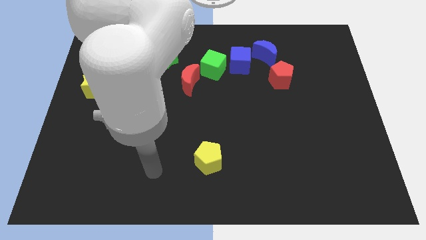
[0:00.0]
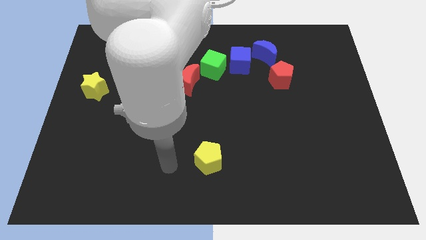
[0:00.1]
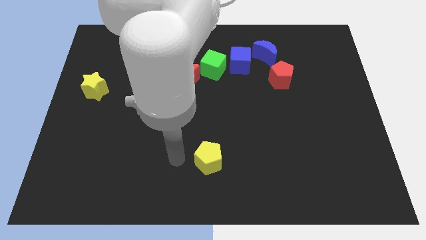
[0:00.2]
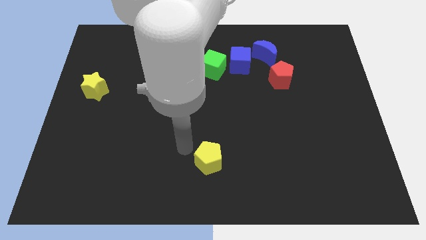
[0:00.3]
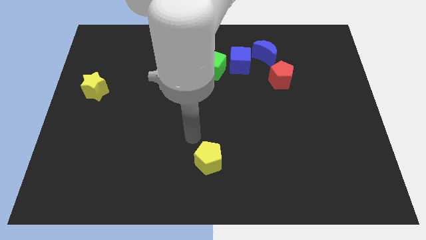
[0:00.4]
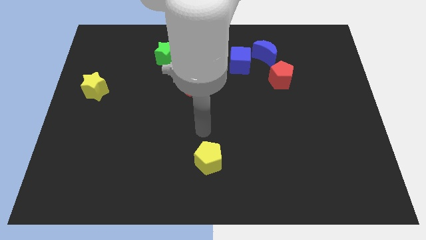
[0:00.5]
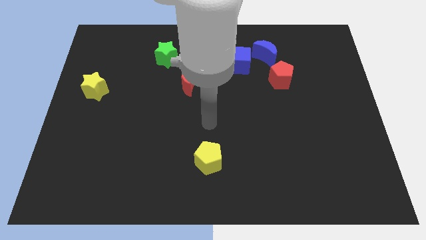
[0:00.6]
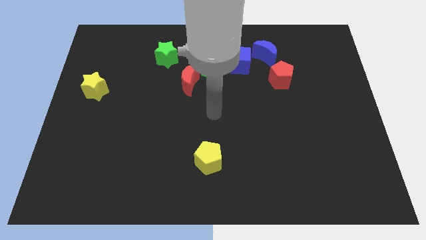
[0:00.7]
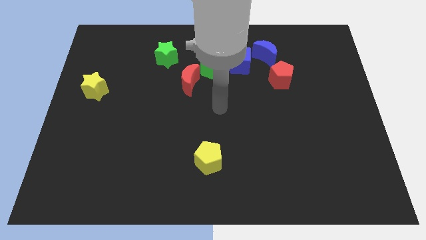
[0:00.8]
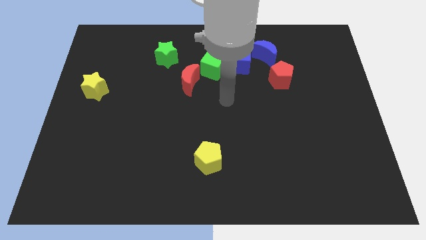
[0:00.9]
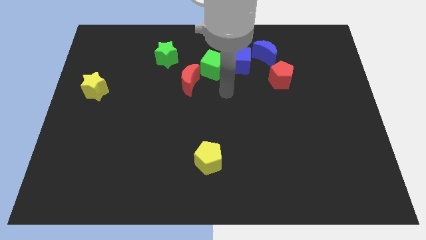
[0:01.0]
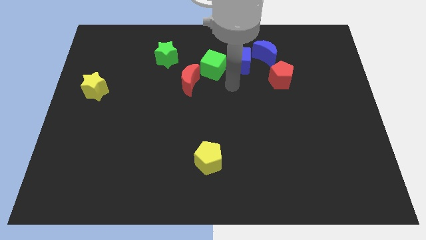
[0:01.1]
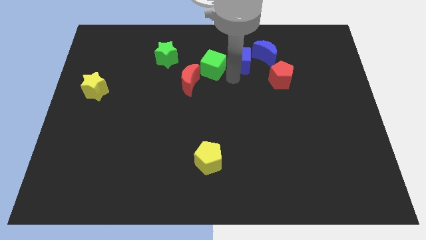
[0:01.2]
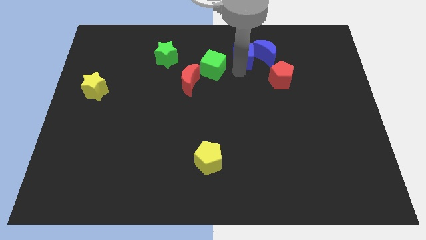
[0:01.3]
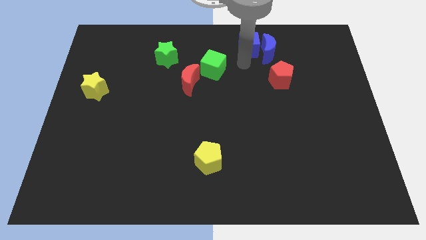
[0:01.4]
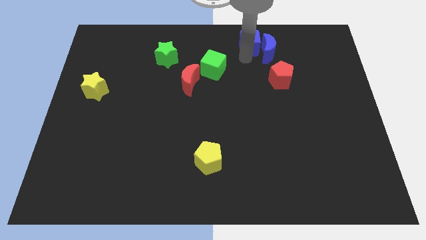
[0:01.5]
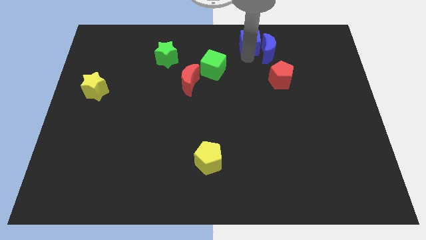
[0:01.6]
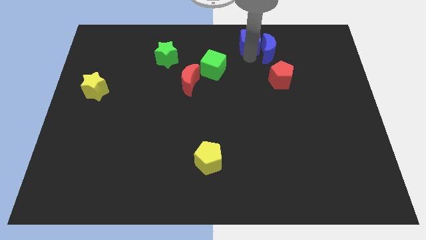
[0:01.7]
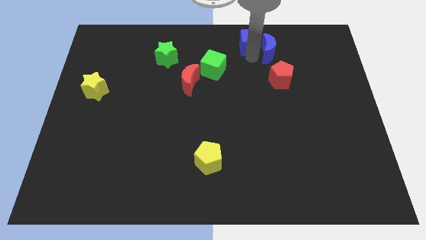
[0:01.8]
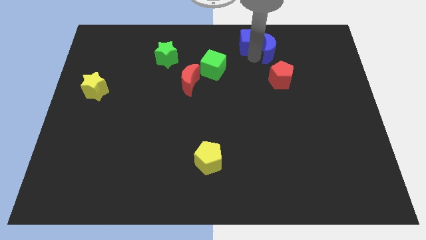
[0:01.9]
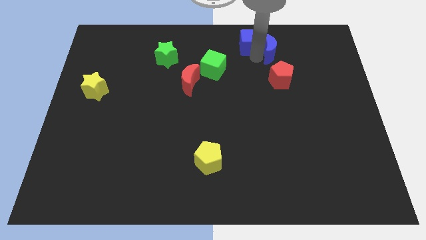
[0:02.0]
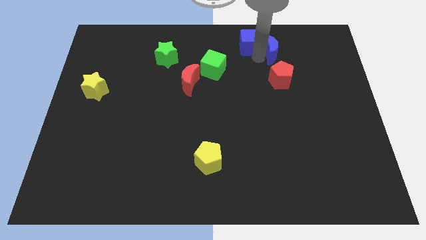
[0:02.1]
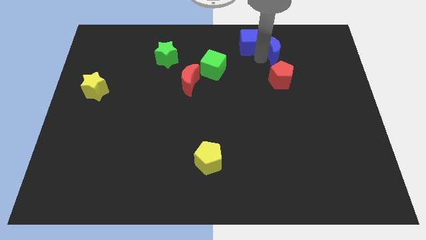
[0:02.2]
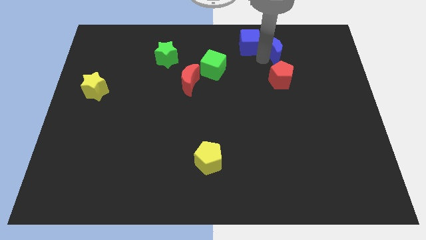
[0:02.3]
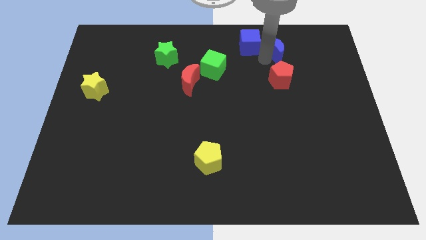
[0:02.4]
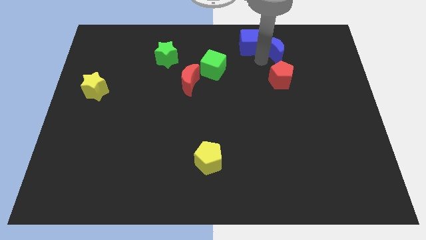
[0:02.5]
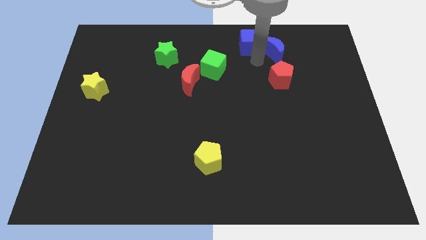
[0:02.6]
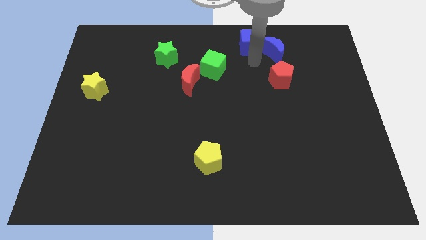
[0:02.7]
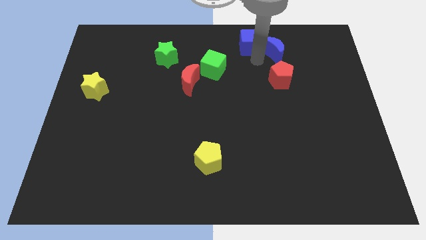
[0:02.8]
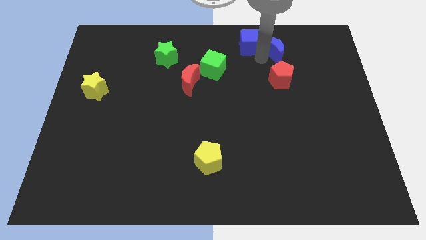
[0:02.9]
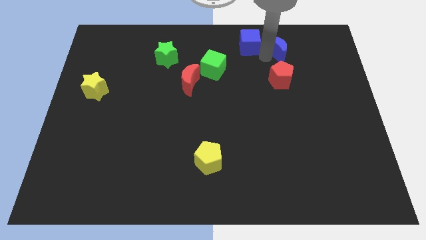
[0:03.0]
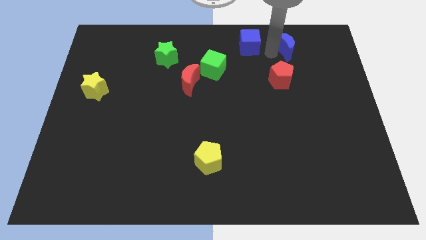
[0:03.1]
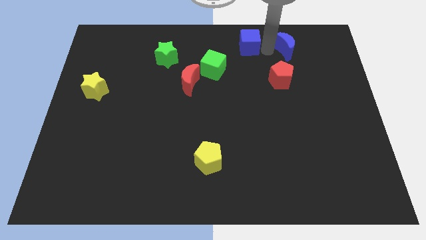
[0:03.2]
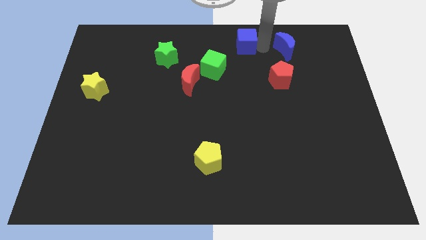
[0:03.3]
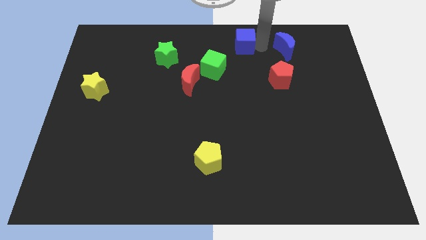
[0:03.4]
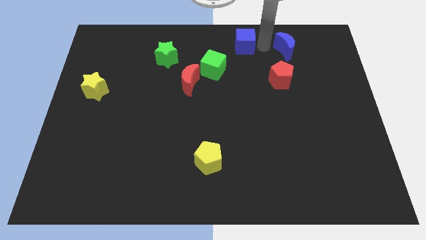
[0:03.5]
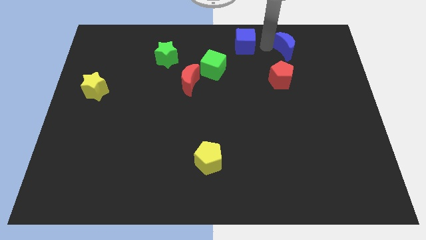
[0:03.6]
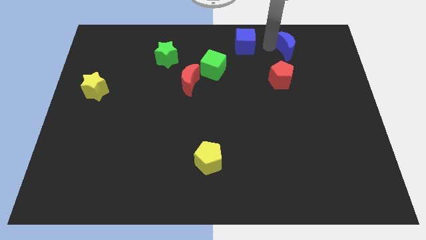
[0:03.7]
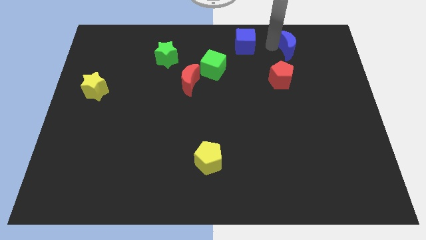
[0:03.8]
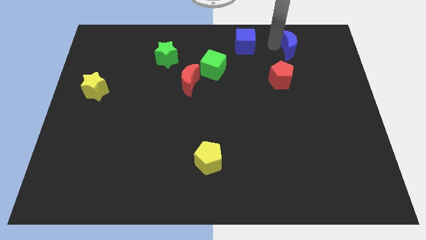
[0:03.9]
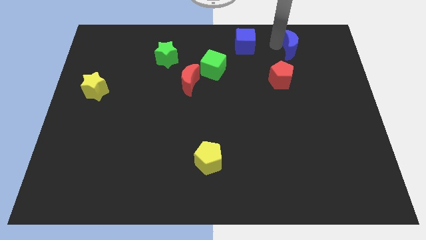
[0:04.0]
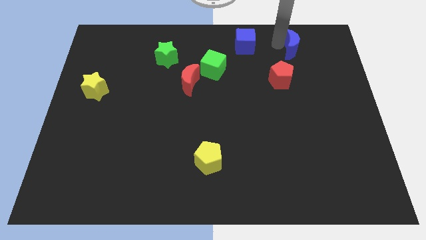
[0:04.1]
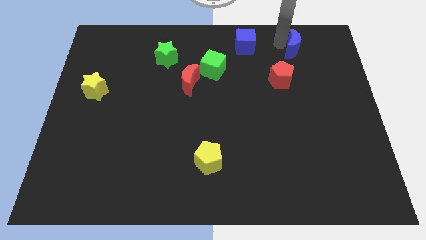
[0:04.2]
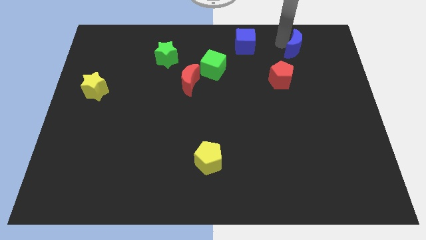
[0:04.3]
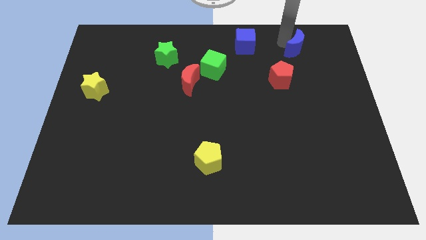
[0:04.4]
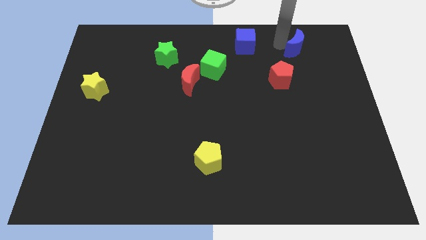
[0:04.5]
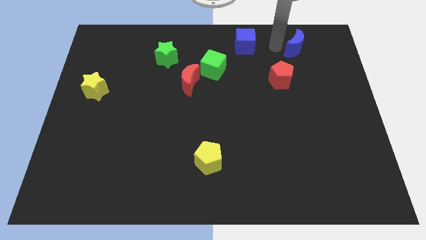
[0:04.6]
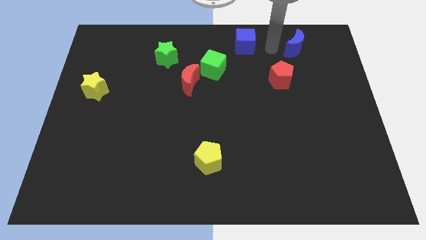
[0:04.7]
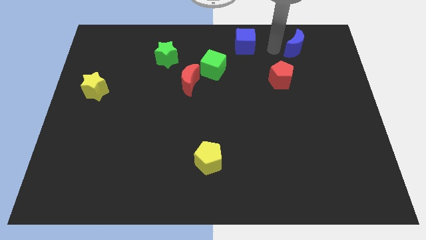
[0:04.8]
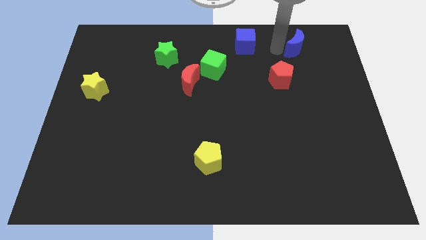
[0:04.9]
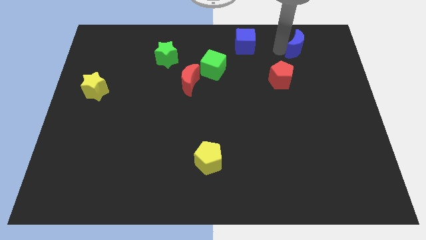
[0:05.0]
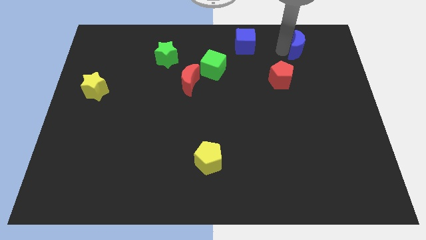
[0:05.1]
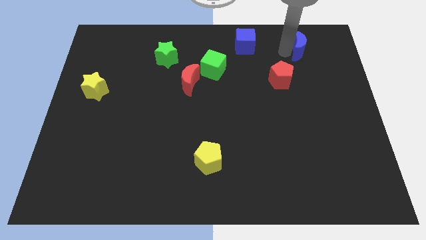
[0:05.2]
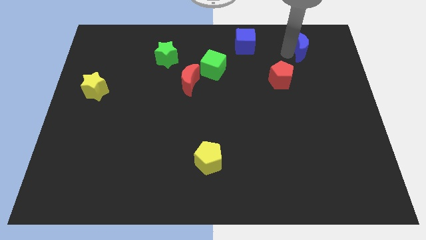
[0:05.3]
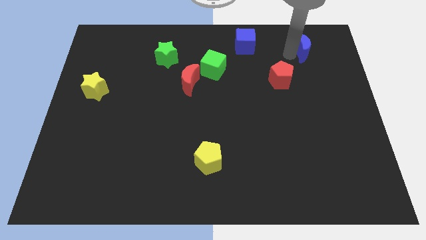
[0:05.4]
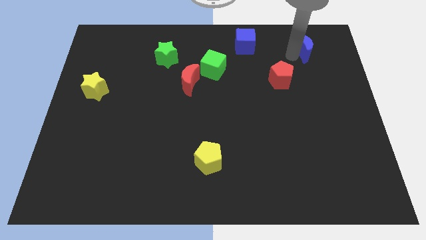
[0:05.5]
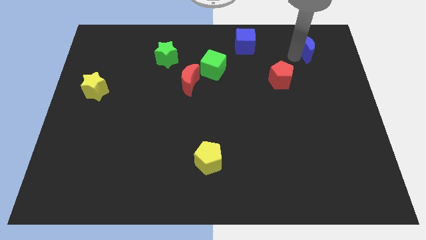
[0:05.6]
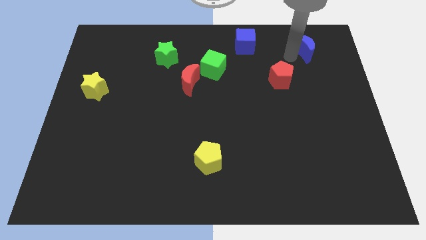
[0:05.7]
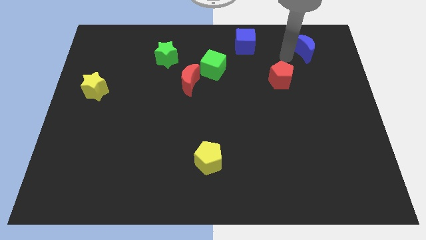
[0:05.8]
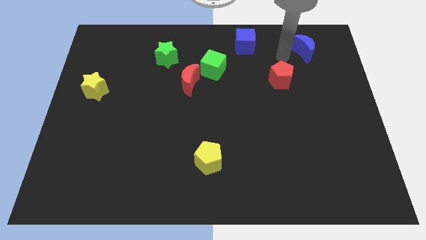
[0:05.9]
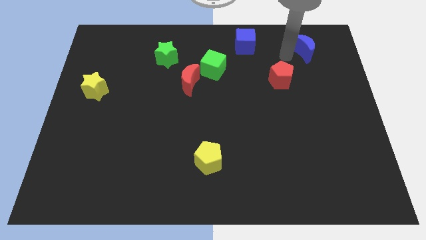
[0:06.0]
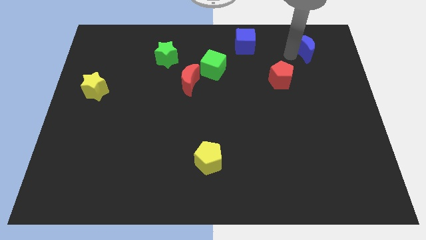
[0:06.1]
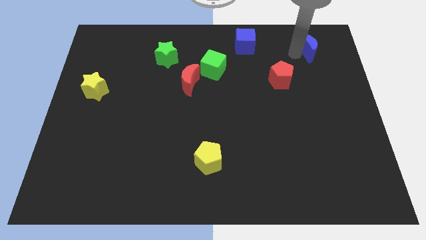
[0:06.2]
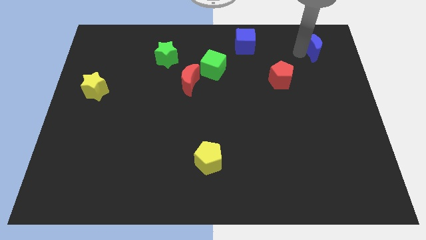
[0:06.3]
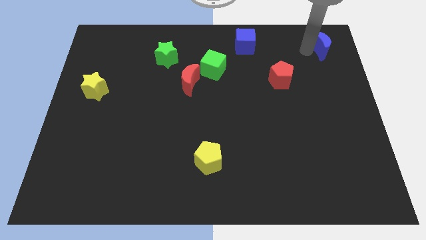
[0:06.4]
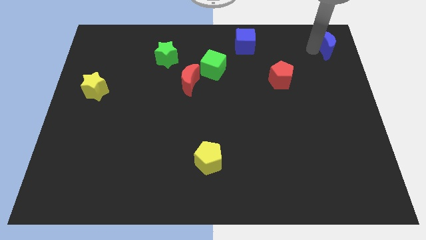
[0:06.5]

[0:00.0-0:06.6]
slide the blue moon to the top right of the board
